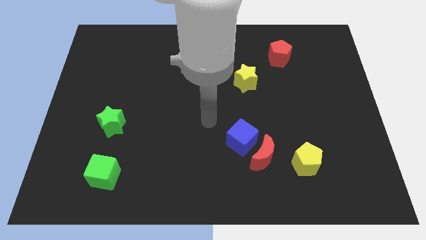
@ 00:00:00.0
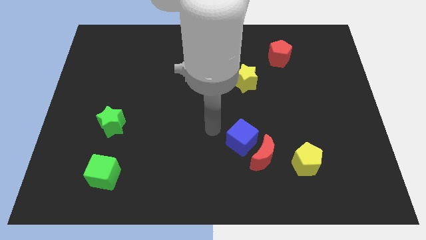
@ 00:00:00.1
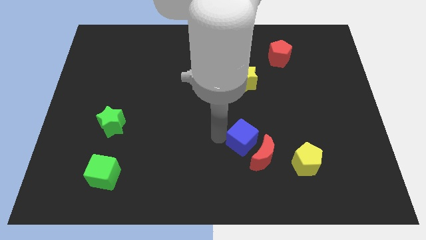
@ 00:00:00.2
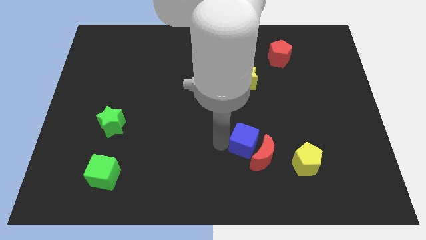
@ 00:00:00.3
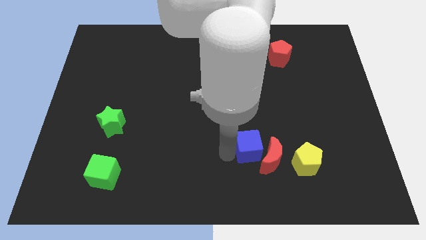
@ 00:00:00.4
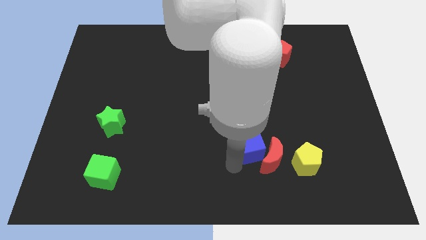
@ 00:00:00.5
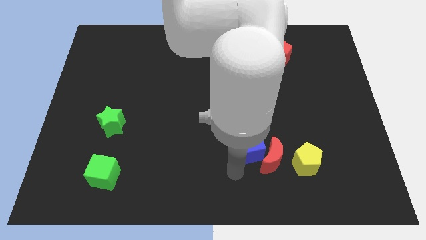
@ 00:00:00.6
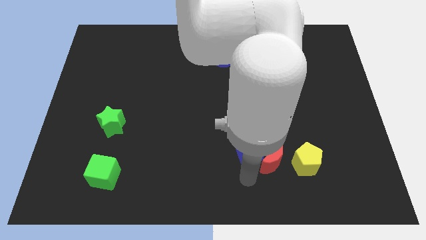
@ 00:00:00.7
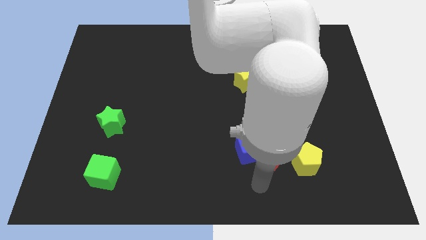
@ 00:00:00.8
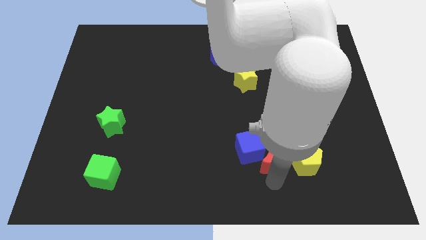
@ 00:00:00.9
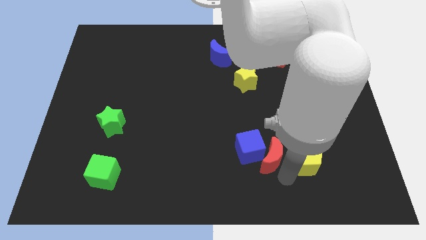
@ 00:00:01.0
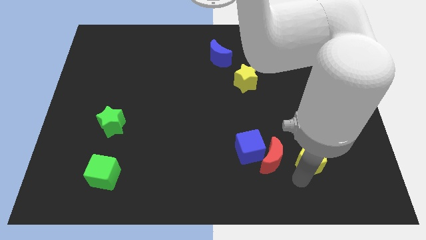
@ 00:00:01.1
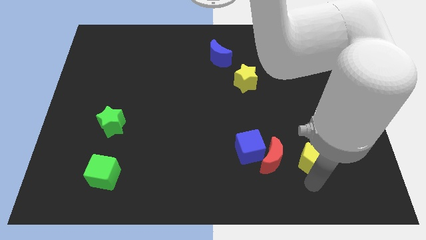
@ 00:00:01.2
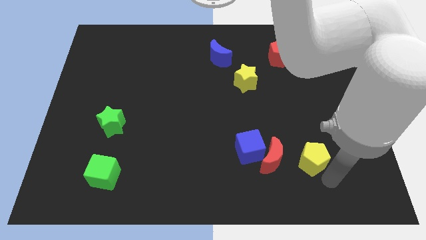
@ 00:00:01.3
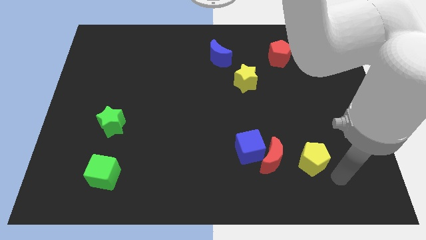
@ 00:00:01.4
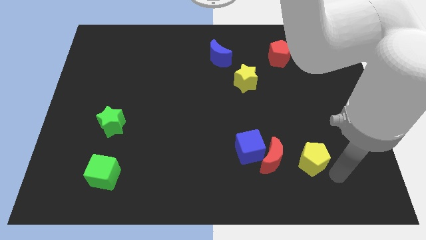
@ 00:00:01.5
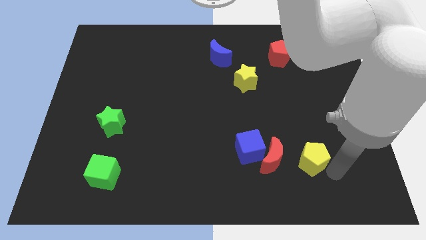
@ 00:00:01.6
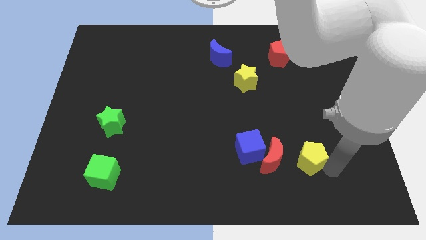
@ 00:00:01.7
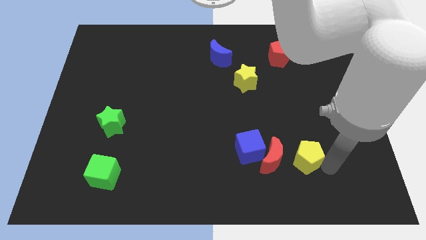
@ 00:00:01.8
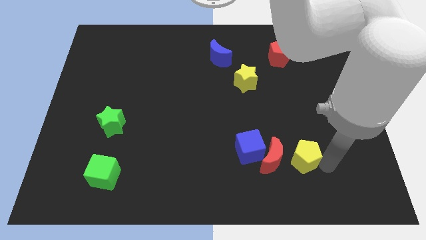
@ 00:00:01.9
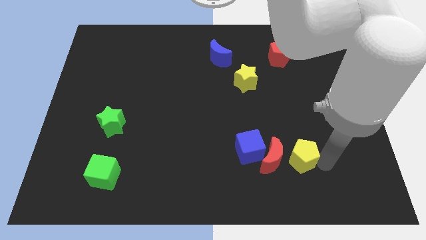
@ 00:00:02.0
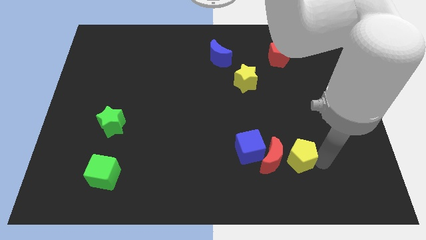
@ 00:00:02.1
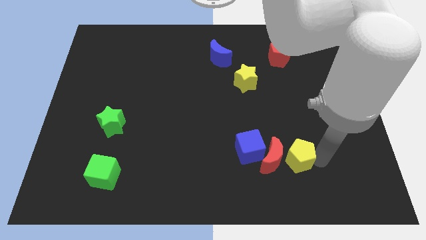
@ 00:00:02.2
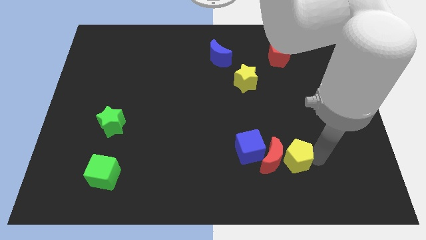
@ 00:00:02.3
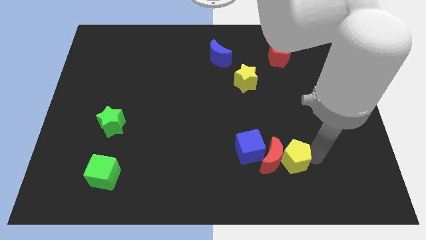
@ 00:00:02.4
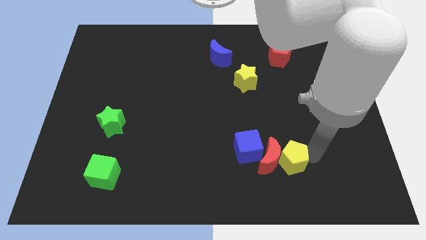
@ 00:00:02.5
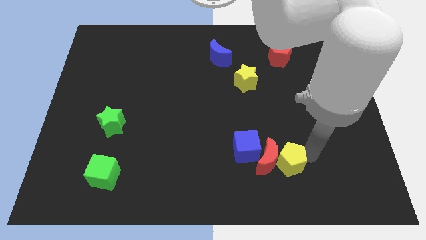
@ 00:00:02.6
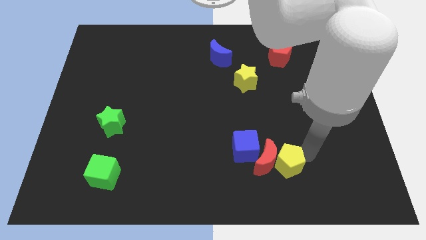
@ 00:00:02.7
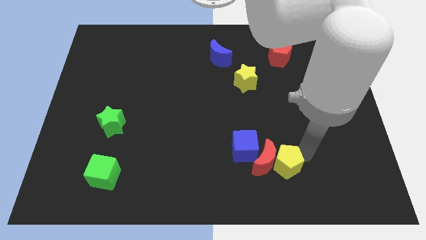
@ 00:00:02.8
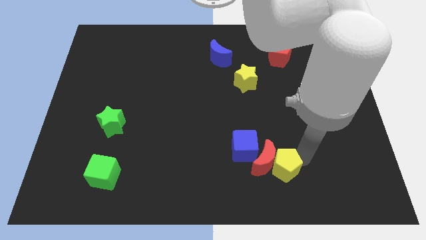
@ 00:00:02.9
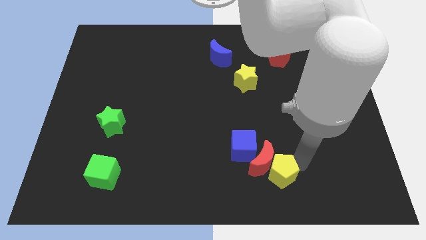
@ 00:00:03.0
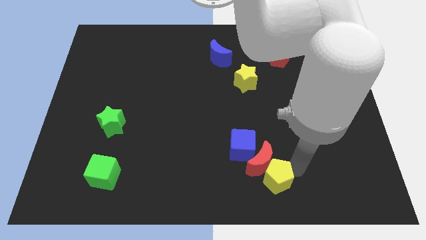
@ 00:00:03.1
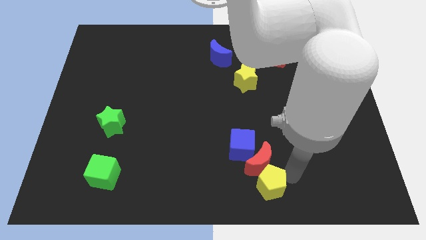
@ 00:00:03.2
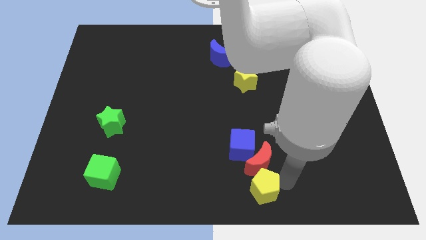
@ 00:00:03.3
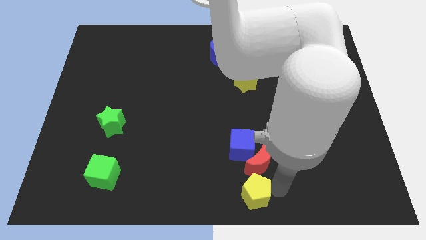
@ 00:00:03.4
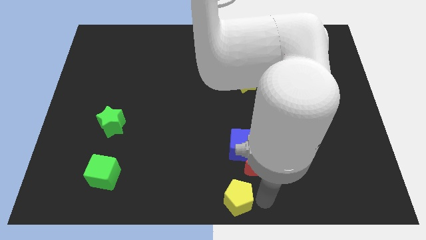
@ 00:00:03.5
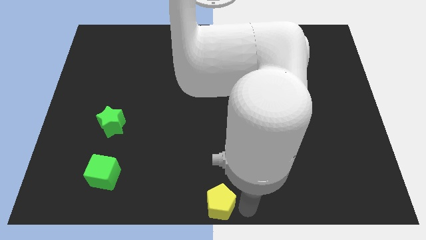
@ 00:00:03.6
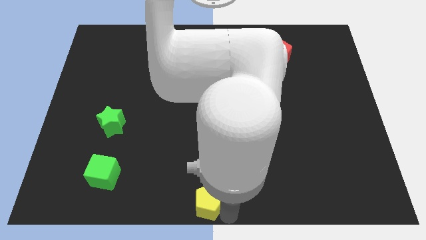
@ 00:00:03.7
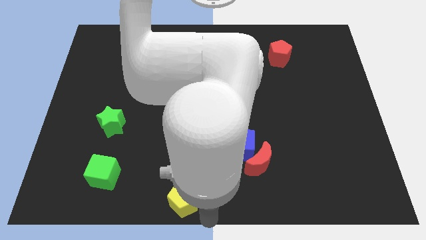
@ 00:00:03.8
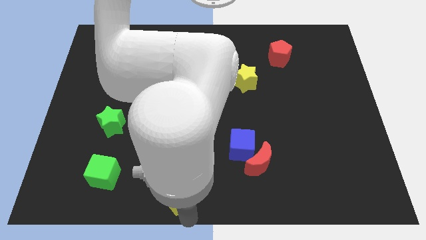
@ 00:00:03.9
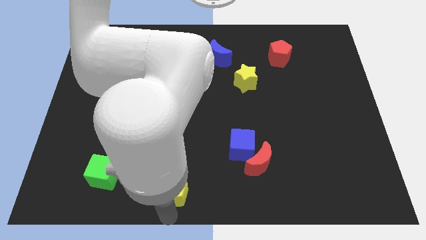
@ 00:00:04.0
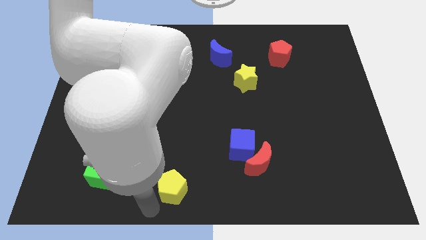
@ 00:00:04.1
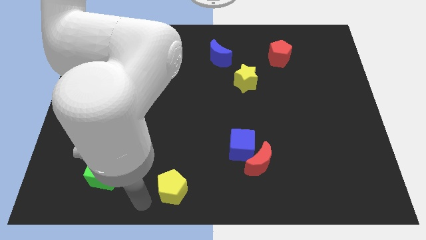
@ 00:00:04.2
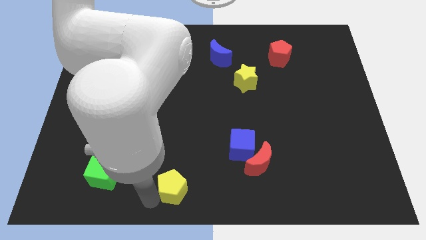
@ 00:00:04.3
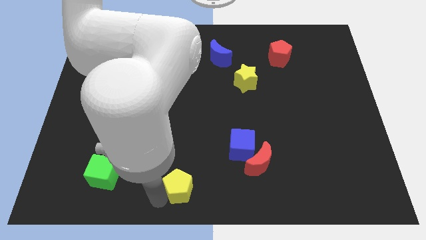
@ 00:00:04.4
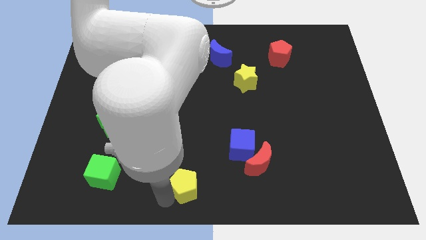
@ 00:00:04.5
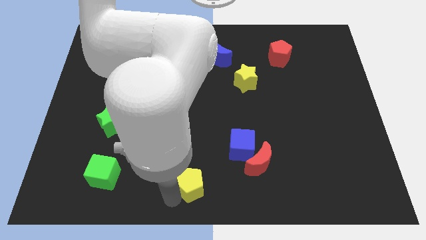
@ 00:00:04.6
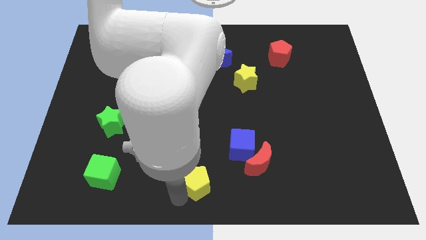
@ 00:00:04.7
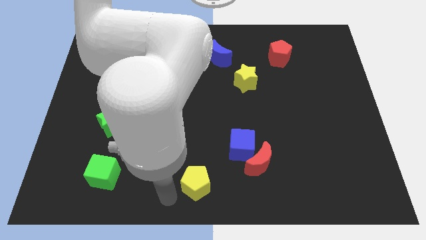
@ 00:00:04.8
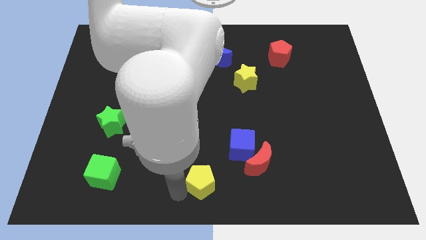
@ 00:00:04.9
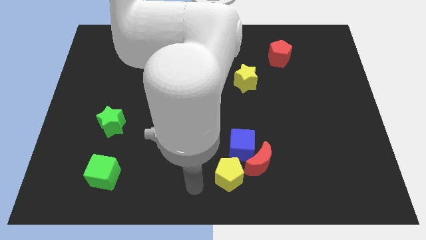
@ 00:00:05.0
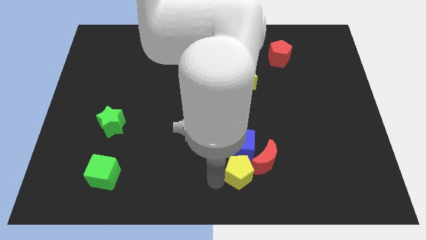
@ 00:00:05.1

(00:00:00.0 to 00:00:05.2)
move the yellow pentagon close to the blue cube

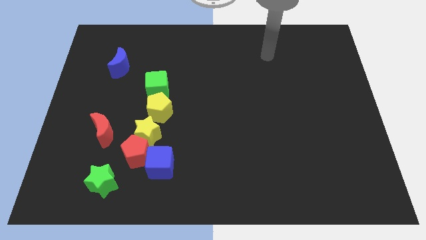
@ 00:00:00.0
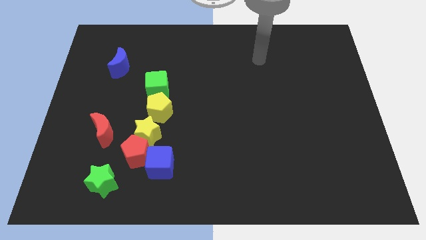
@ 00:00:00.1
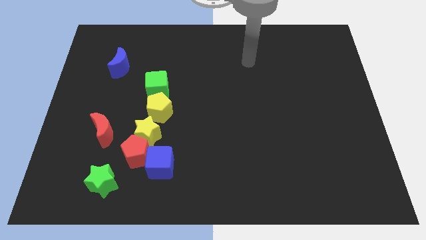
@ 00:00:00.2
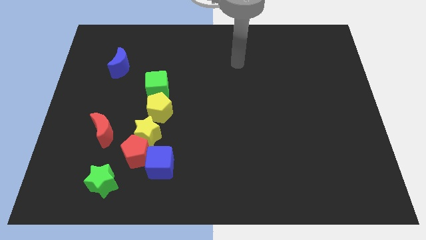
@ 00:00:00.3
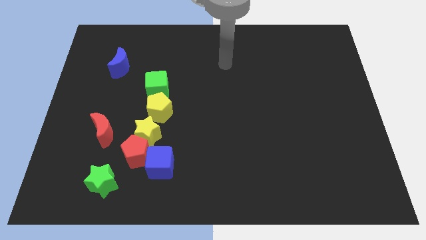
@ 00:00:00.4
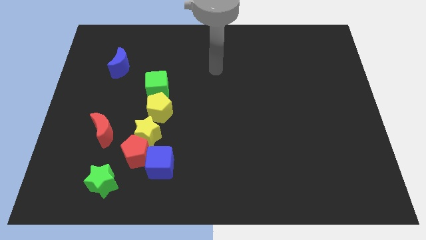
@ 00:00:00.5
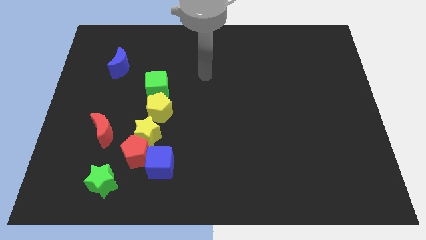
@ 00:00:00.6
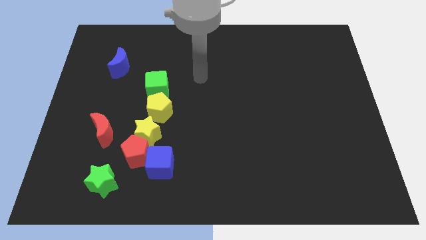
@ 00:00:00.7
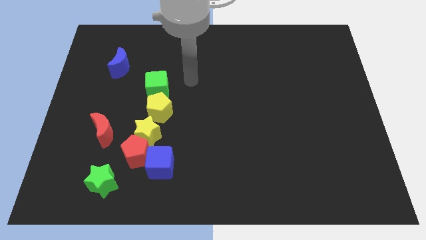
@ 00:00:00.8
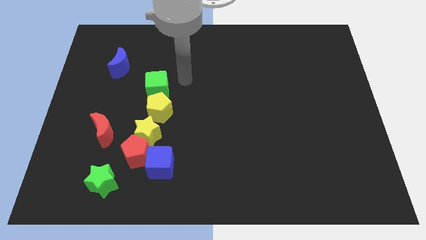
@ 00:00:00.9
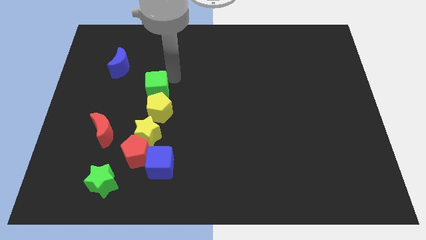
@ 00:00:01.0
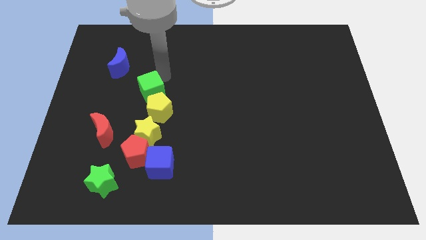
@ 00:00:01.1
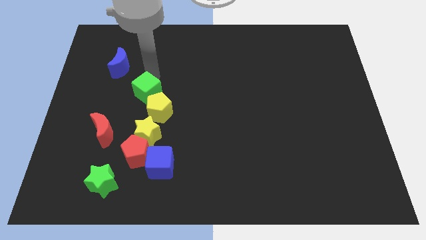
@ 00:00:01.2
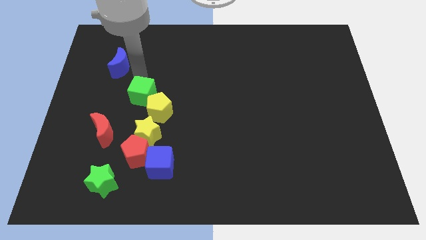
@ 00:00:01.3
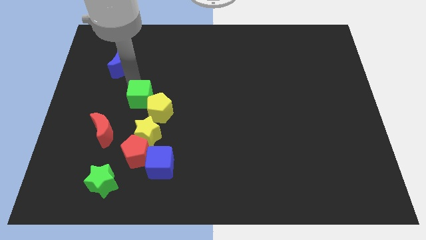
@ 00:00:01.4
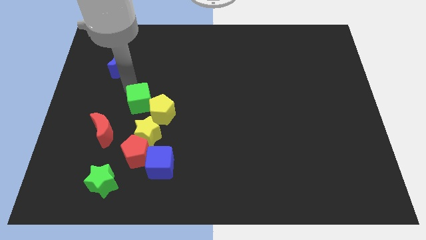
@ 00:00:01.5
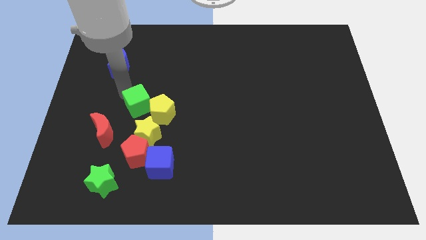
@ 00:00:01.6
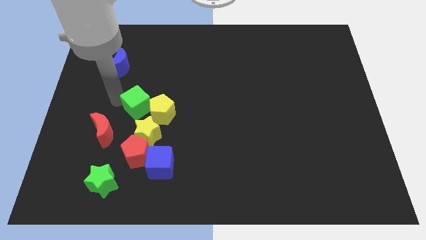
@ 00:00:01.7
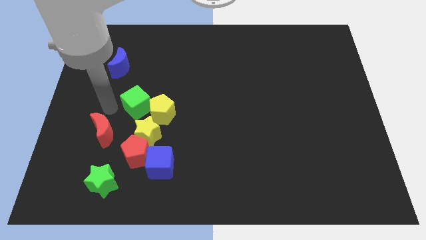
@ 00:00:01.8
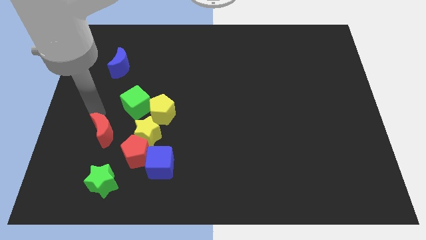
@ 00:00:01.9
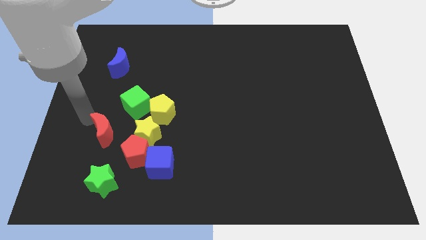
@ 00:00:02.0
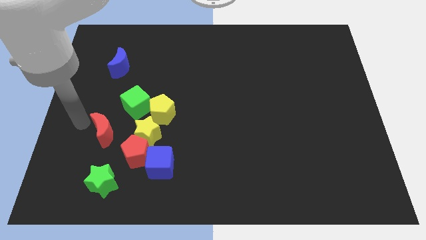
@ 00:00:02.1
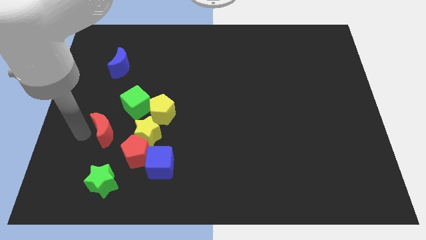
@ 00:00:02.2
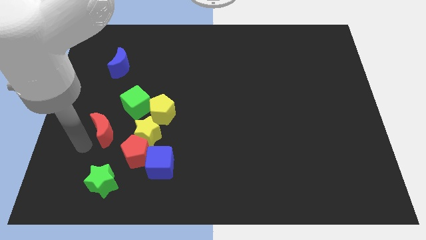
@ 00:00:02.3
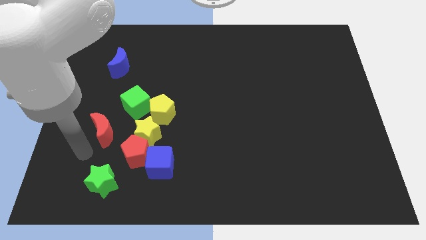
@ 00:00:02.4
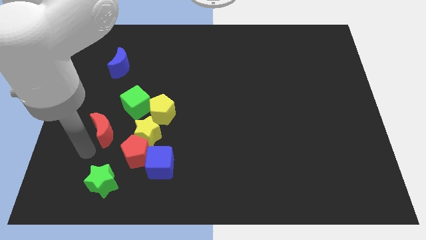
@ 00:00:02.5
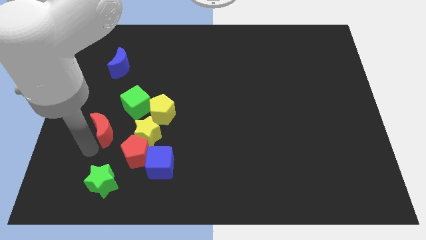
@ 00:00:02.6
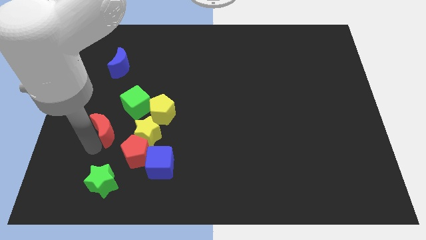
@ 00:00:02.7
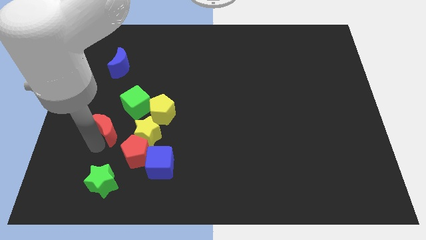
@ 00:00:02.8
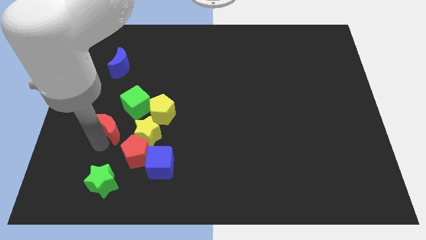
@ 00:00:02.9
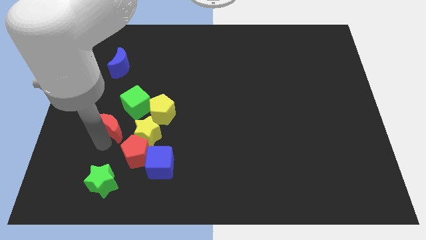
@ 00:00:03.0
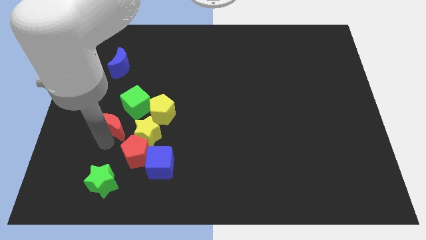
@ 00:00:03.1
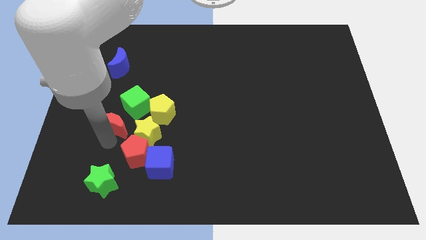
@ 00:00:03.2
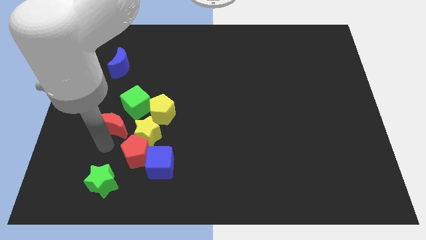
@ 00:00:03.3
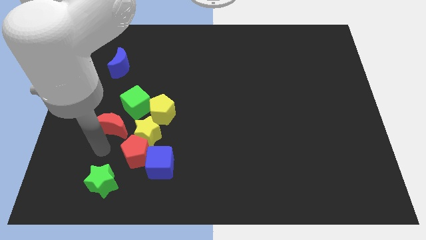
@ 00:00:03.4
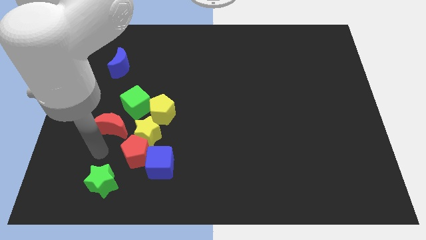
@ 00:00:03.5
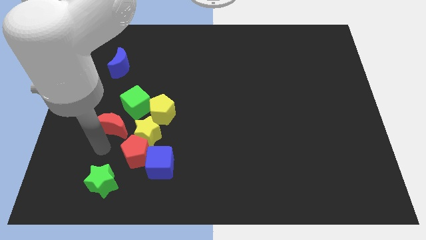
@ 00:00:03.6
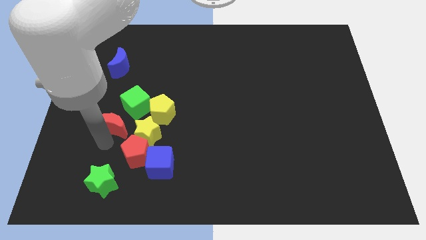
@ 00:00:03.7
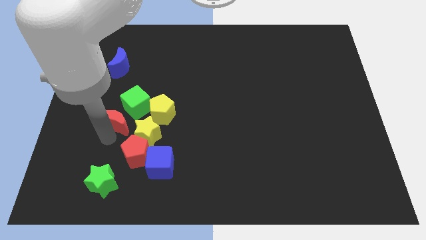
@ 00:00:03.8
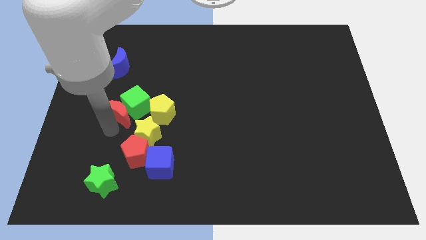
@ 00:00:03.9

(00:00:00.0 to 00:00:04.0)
move the red moon to the green cube
